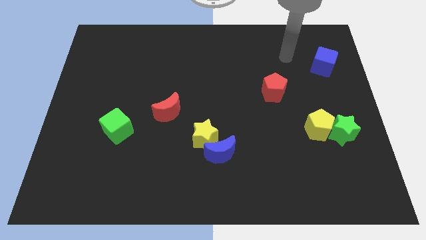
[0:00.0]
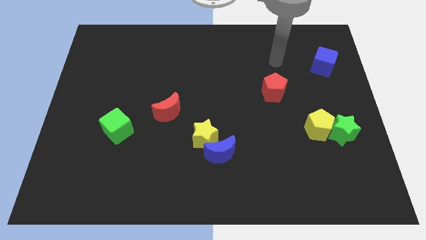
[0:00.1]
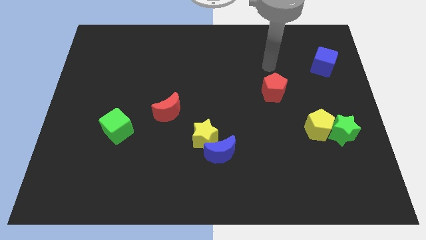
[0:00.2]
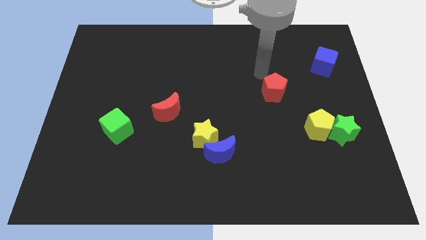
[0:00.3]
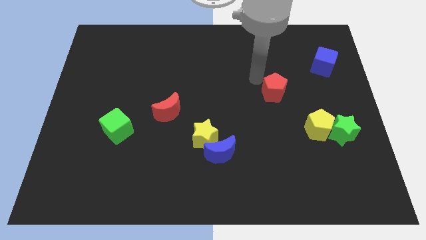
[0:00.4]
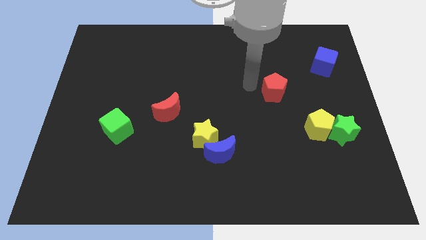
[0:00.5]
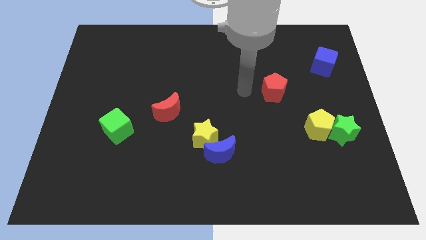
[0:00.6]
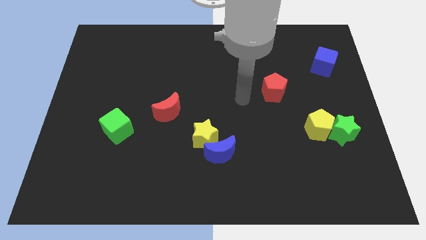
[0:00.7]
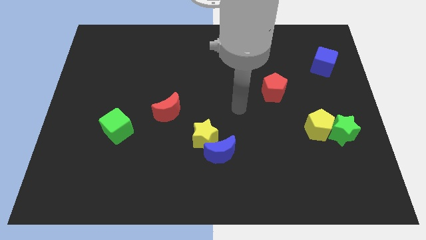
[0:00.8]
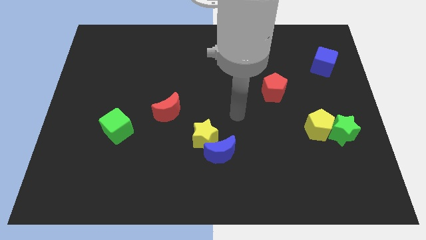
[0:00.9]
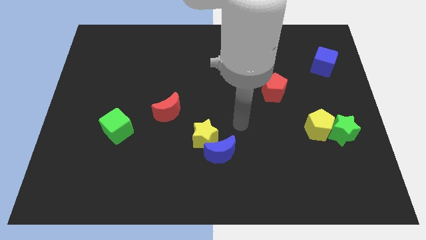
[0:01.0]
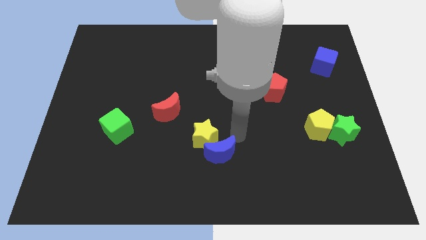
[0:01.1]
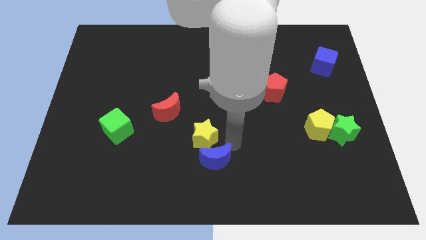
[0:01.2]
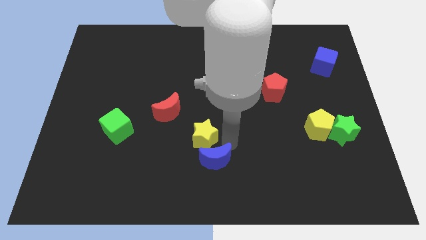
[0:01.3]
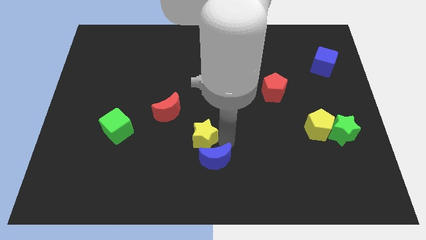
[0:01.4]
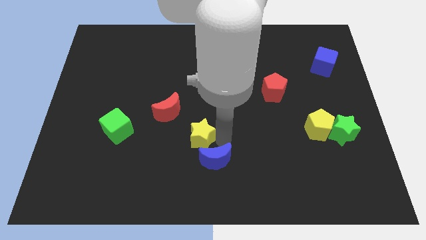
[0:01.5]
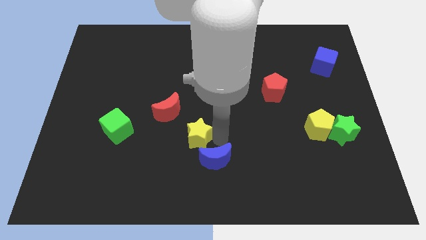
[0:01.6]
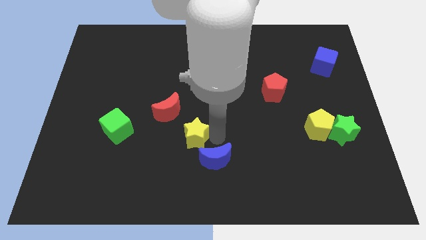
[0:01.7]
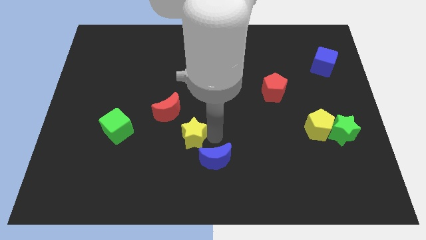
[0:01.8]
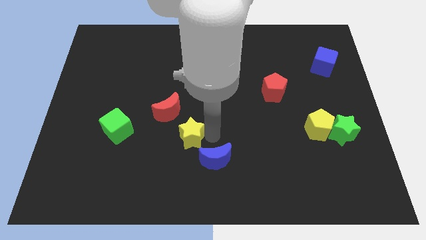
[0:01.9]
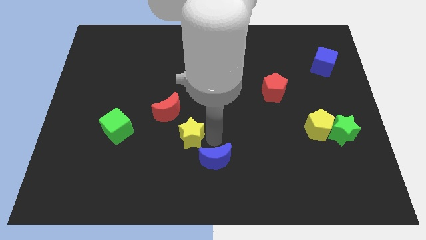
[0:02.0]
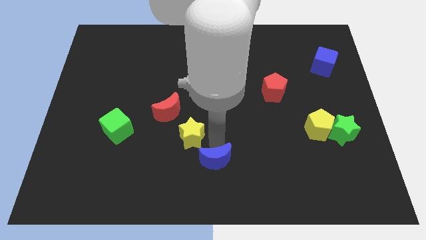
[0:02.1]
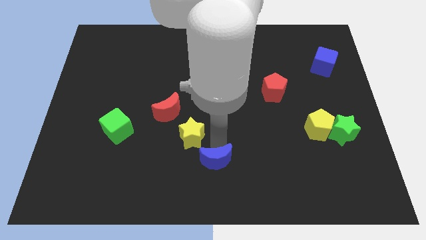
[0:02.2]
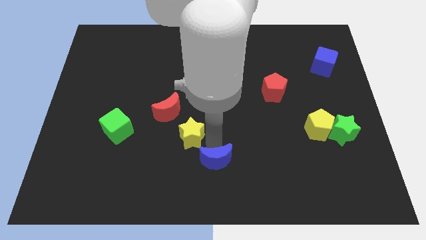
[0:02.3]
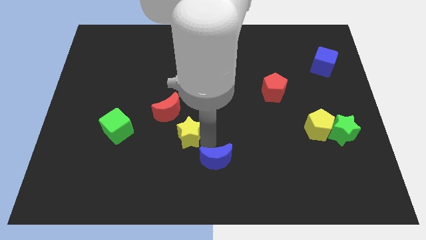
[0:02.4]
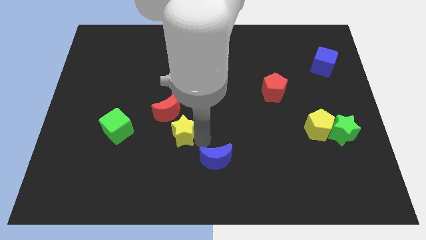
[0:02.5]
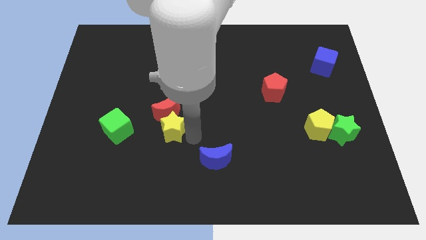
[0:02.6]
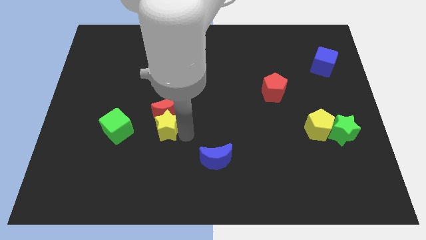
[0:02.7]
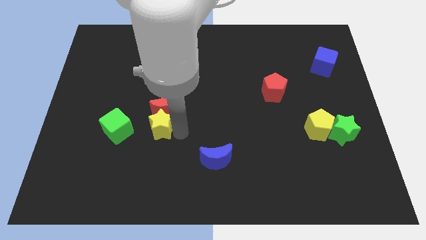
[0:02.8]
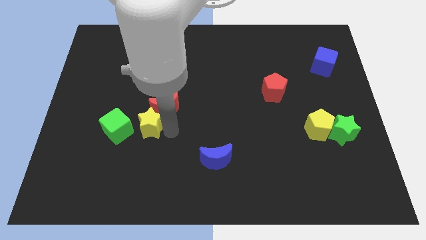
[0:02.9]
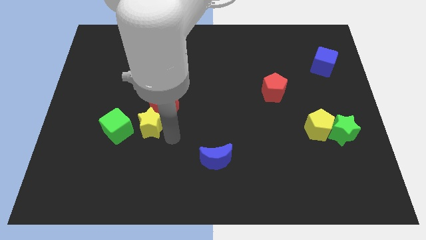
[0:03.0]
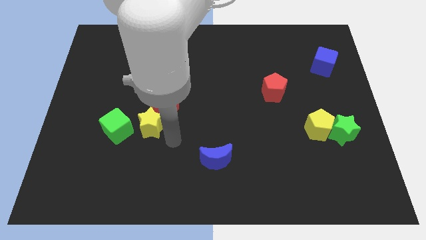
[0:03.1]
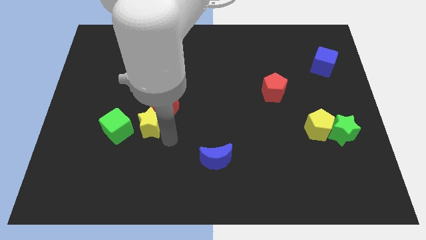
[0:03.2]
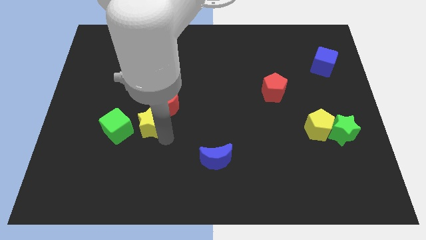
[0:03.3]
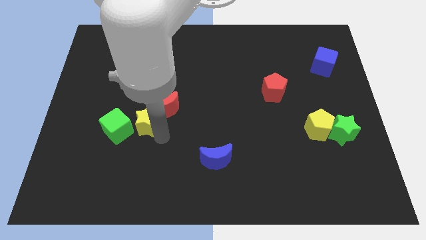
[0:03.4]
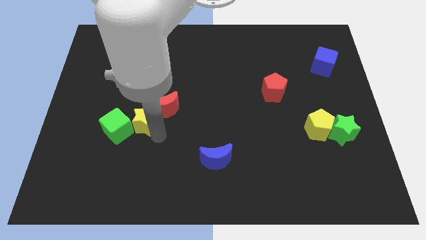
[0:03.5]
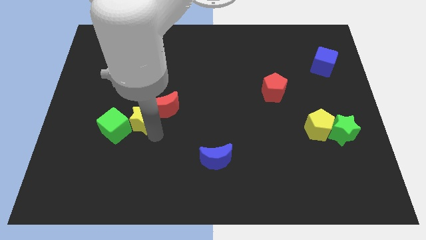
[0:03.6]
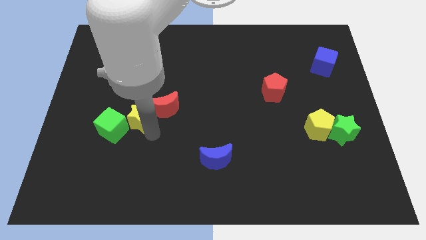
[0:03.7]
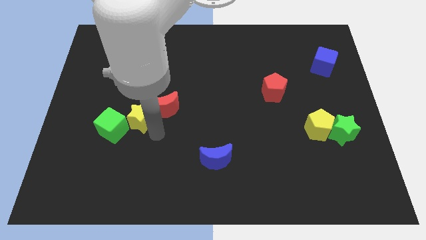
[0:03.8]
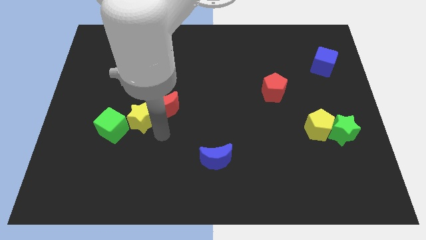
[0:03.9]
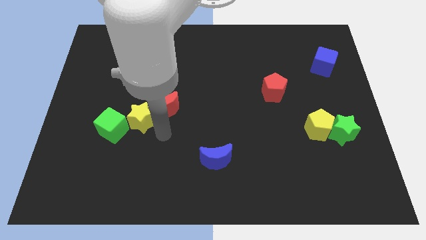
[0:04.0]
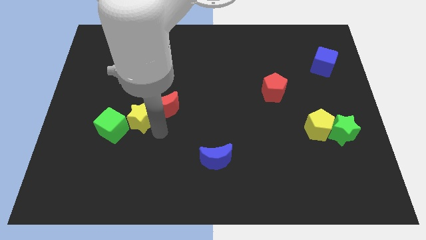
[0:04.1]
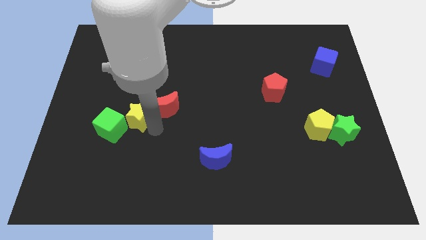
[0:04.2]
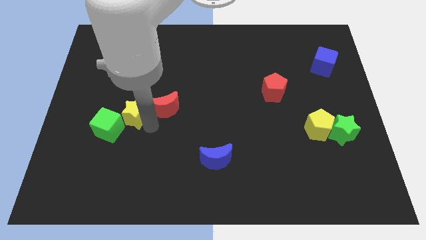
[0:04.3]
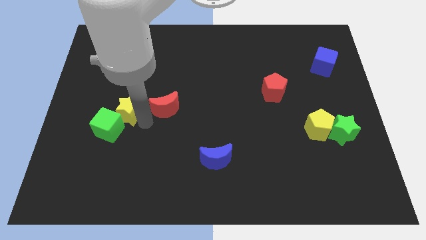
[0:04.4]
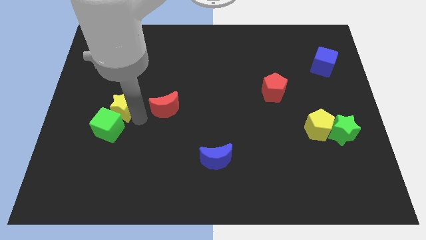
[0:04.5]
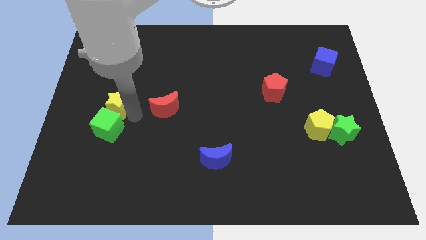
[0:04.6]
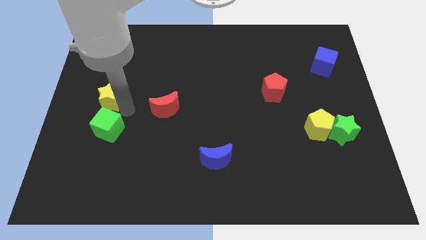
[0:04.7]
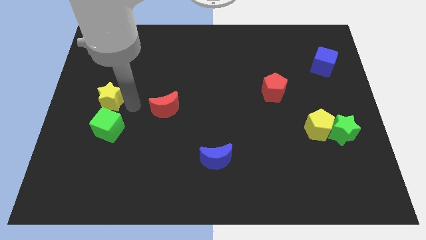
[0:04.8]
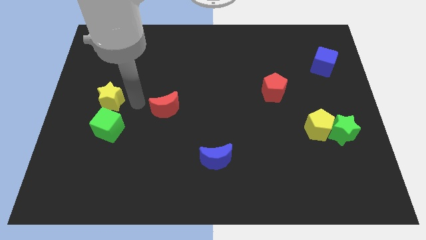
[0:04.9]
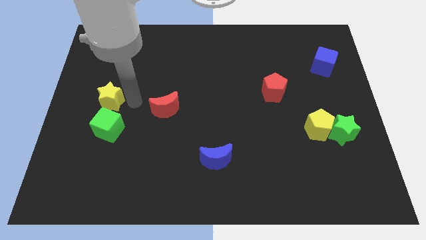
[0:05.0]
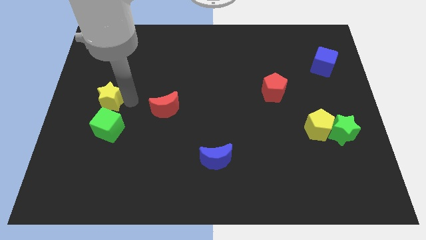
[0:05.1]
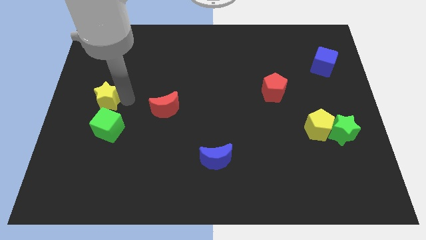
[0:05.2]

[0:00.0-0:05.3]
push the yellow star to the left side

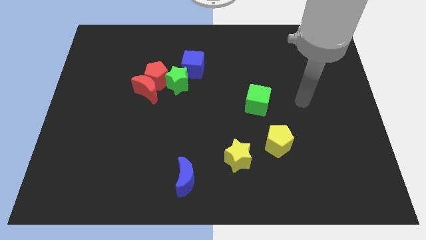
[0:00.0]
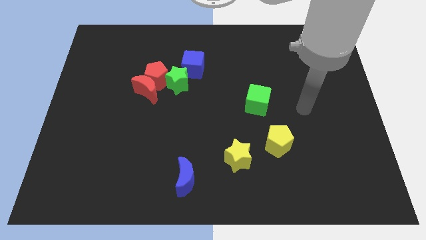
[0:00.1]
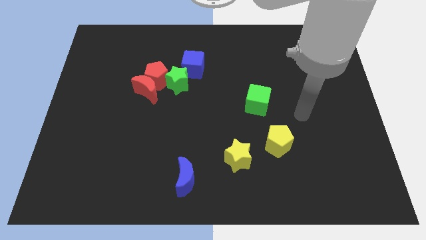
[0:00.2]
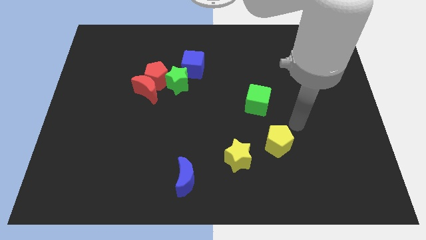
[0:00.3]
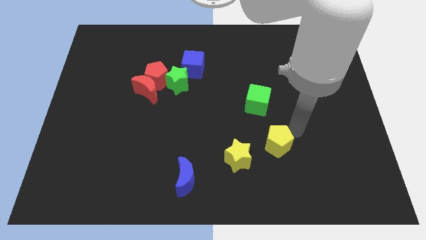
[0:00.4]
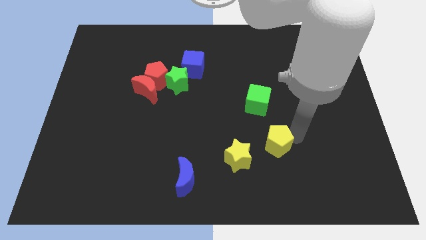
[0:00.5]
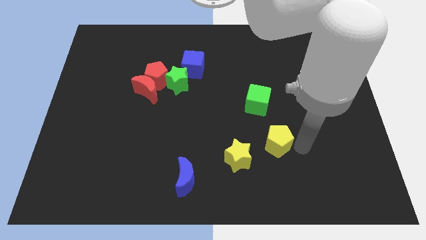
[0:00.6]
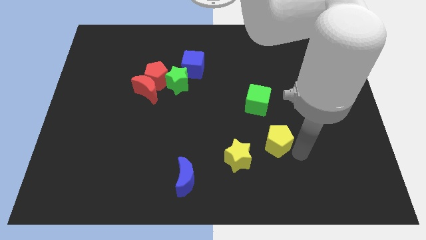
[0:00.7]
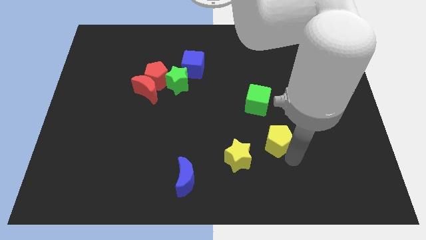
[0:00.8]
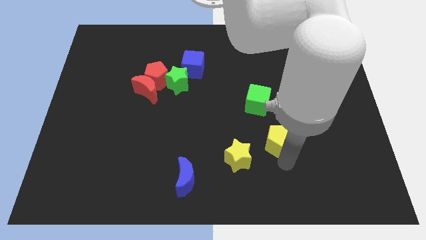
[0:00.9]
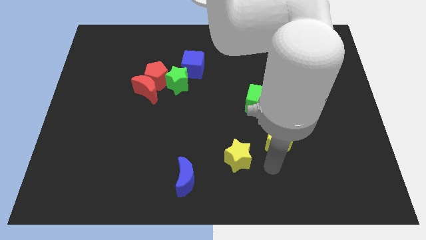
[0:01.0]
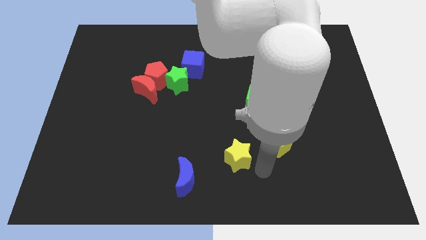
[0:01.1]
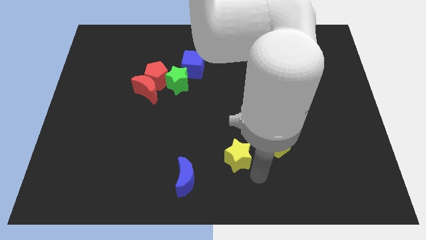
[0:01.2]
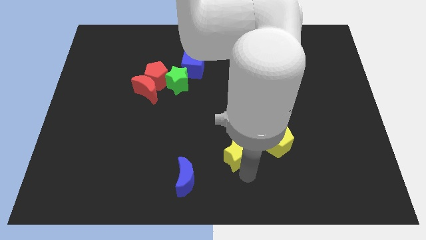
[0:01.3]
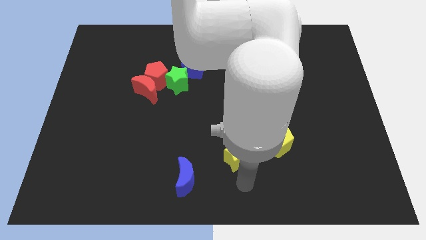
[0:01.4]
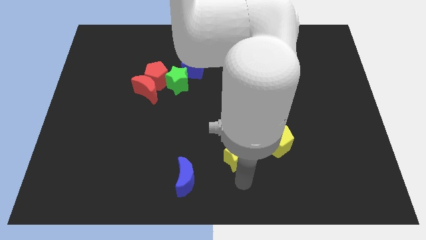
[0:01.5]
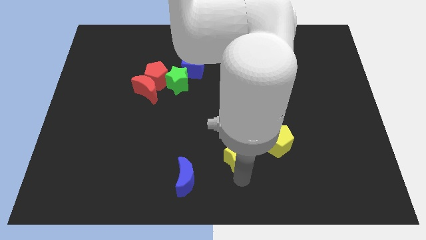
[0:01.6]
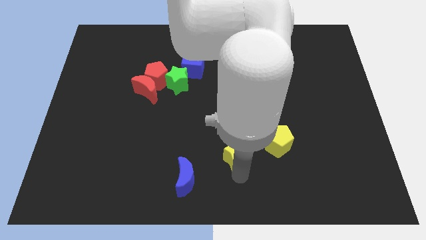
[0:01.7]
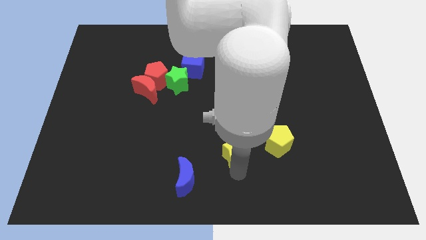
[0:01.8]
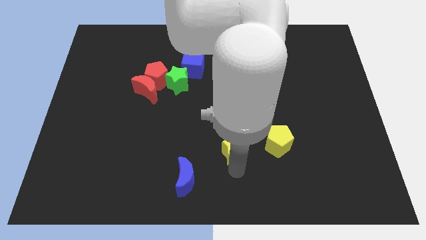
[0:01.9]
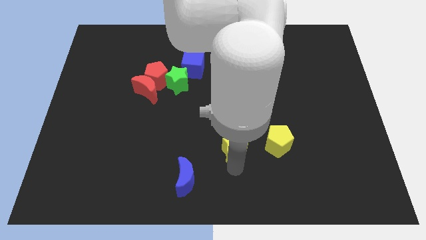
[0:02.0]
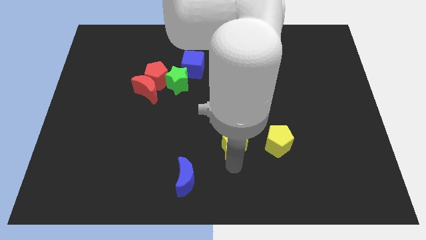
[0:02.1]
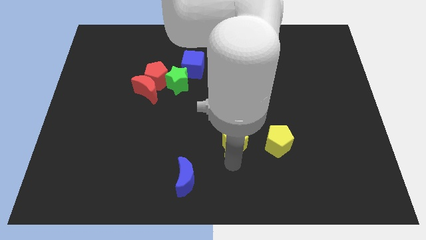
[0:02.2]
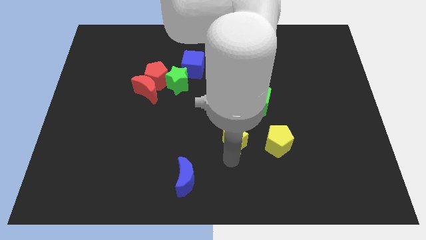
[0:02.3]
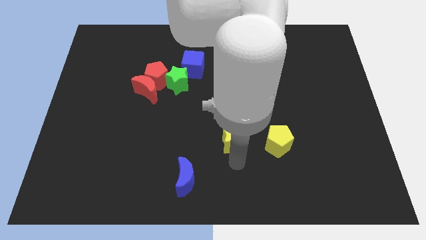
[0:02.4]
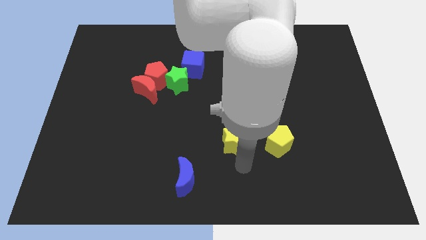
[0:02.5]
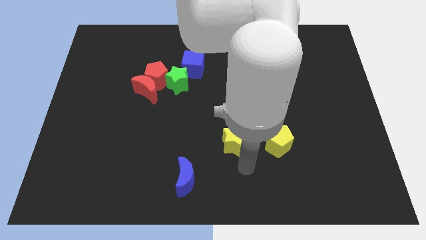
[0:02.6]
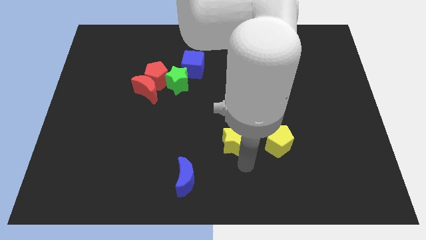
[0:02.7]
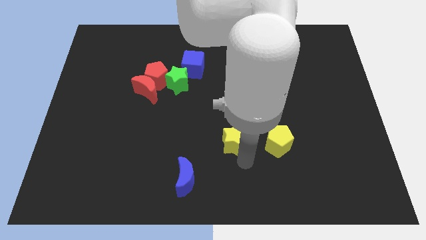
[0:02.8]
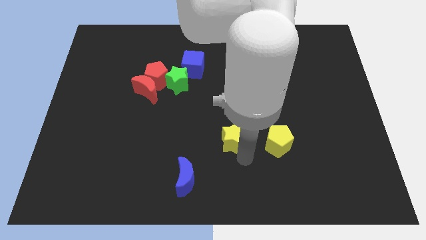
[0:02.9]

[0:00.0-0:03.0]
put the yellow star to the center
